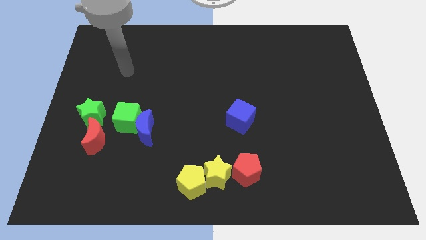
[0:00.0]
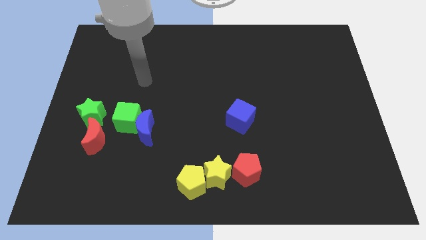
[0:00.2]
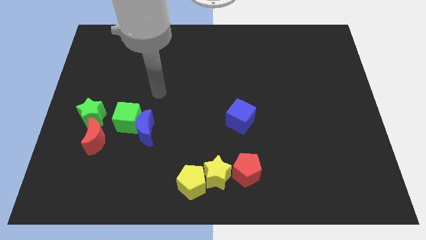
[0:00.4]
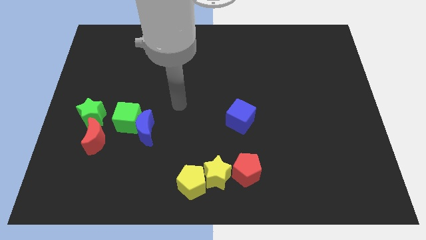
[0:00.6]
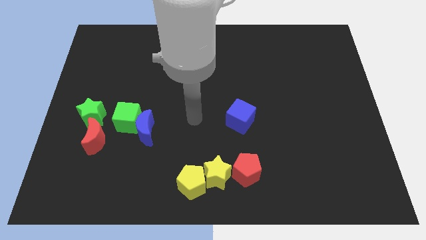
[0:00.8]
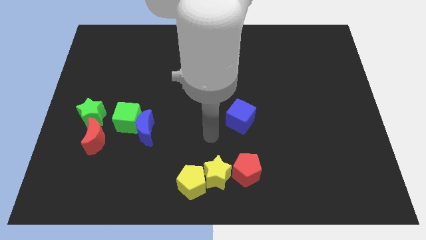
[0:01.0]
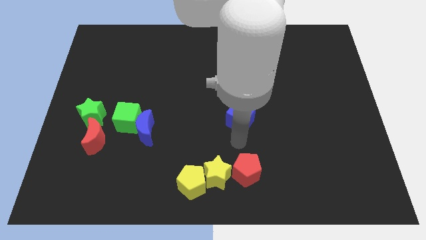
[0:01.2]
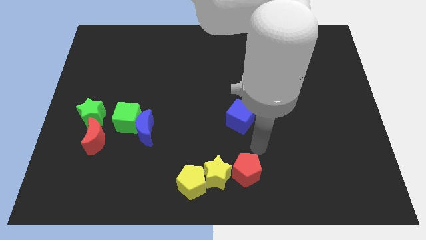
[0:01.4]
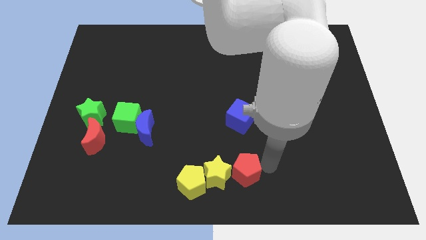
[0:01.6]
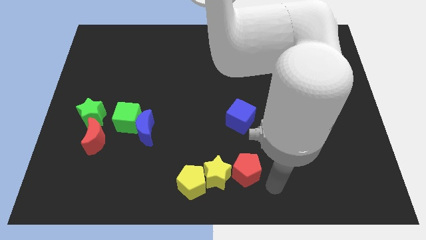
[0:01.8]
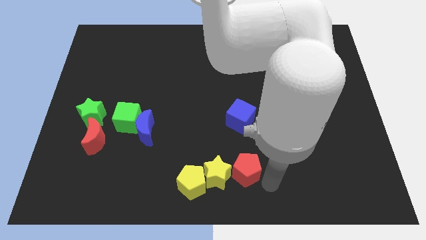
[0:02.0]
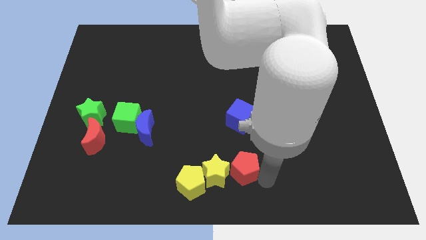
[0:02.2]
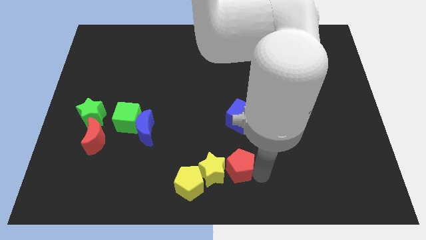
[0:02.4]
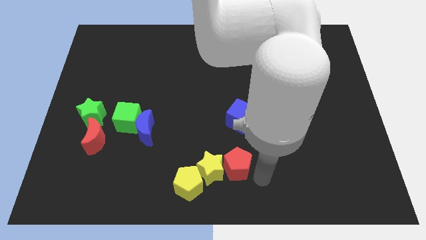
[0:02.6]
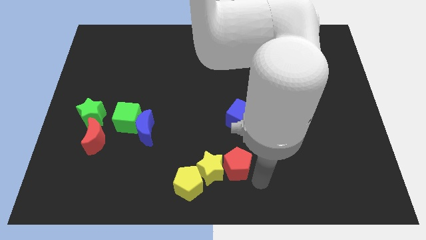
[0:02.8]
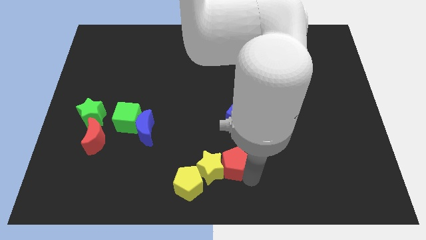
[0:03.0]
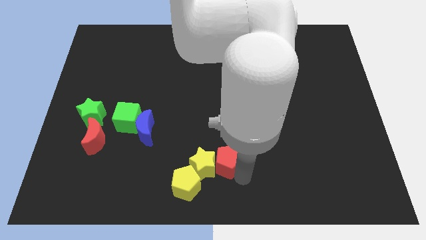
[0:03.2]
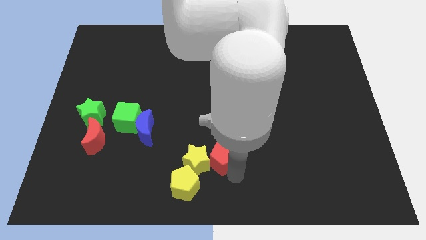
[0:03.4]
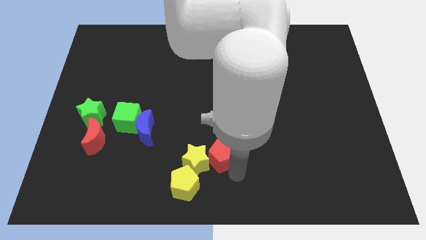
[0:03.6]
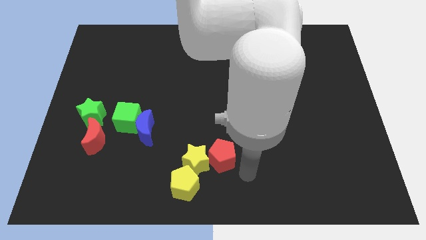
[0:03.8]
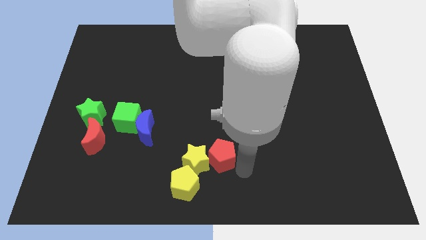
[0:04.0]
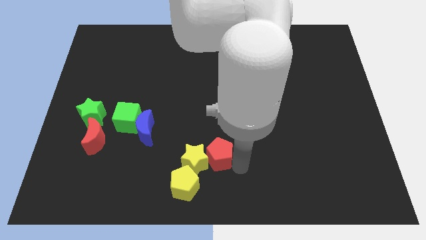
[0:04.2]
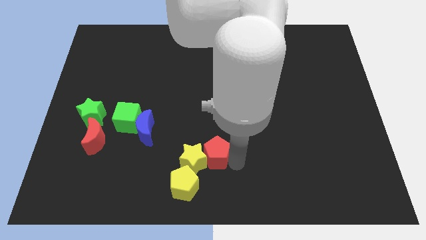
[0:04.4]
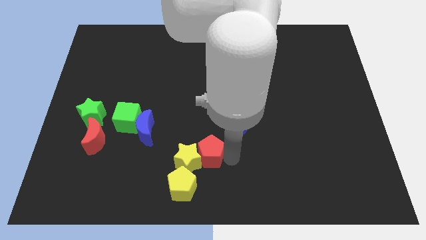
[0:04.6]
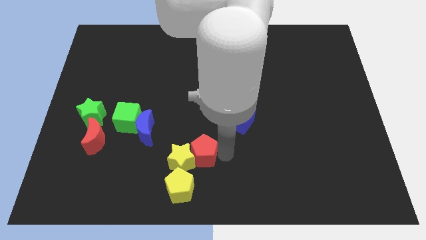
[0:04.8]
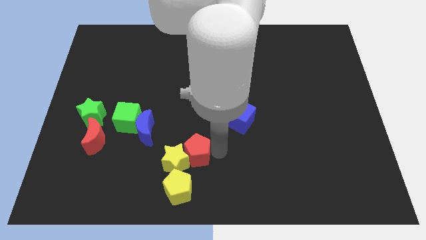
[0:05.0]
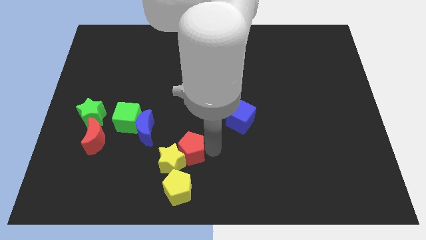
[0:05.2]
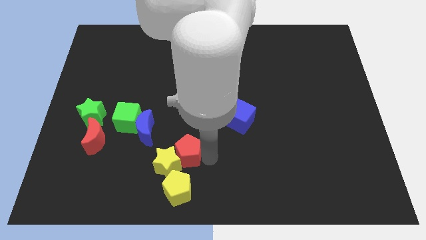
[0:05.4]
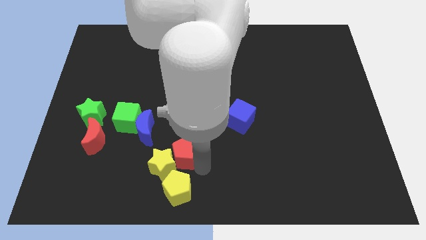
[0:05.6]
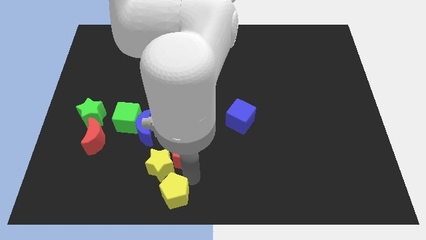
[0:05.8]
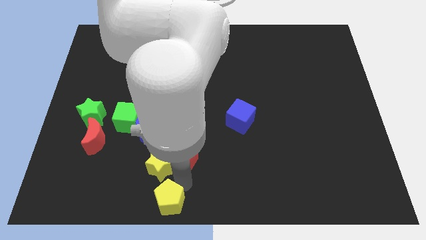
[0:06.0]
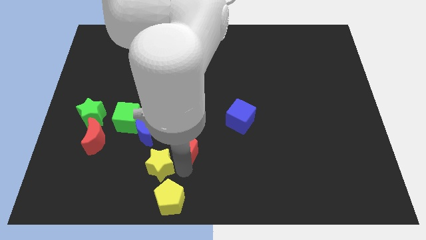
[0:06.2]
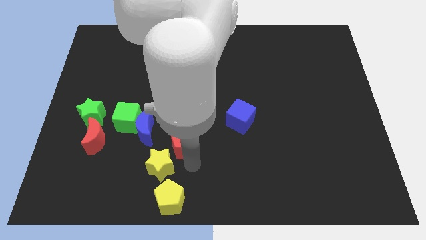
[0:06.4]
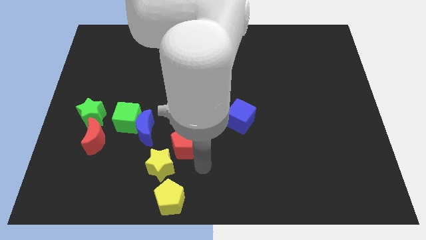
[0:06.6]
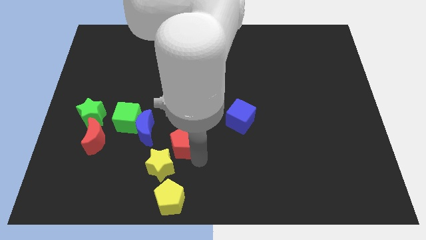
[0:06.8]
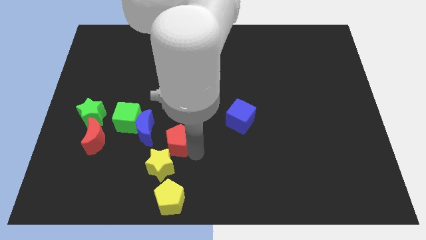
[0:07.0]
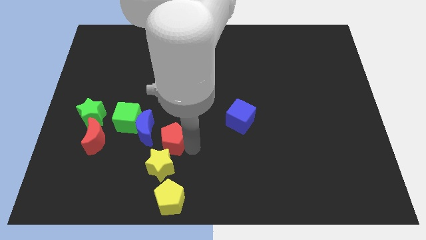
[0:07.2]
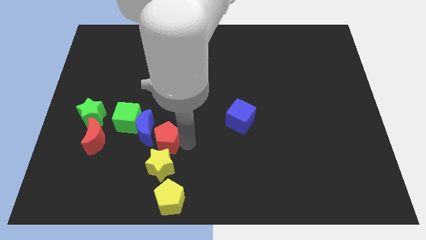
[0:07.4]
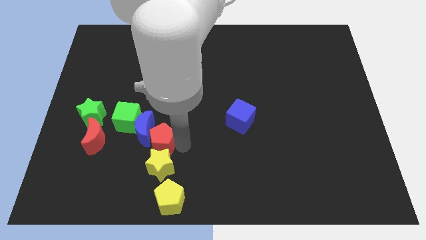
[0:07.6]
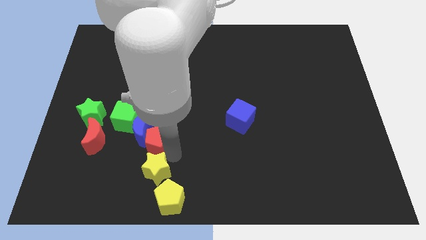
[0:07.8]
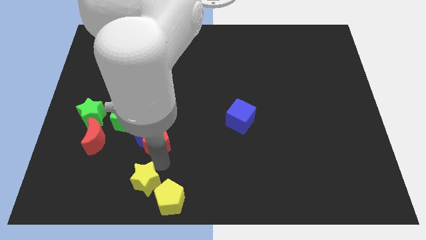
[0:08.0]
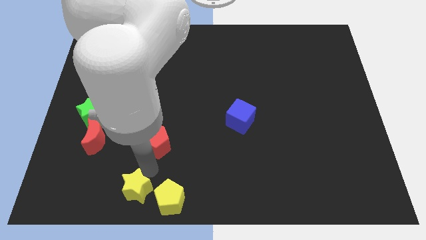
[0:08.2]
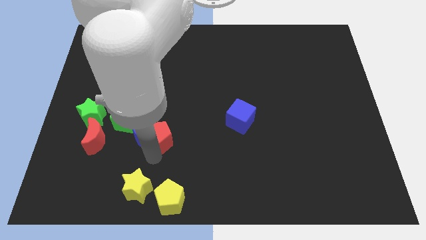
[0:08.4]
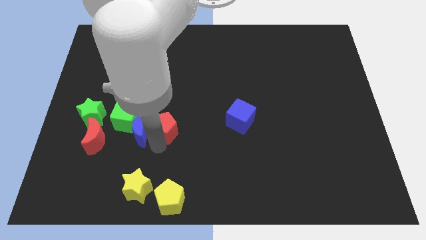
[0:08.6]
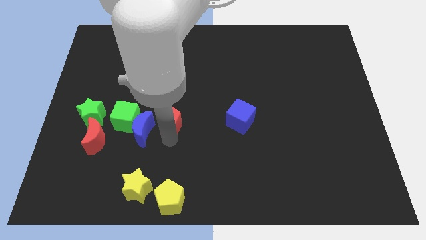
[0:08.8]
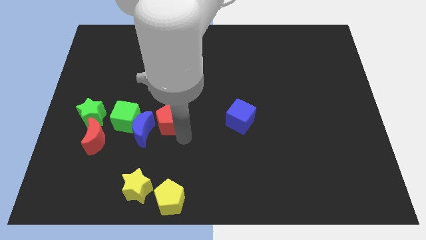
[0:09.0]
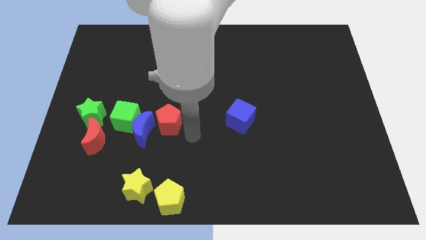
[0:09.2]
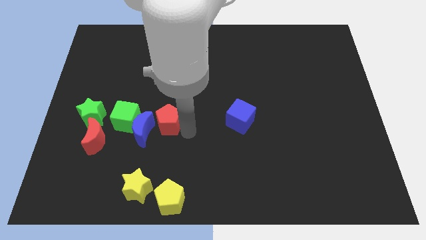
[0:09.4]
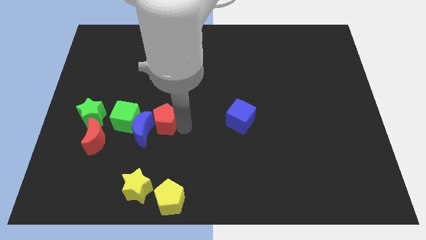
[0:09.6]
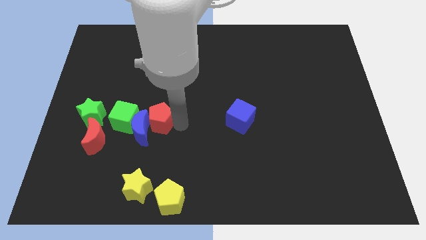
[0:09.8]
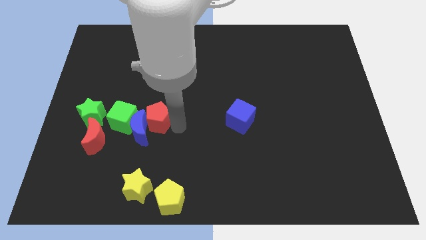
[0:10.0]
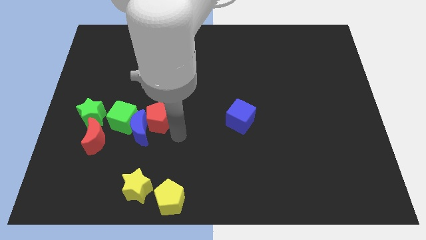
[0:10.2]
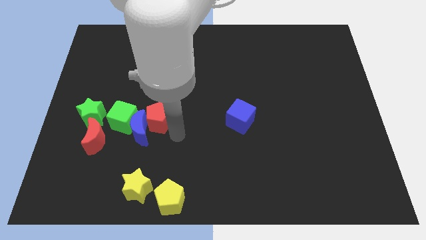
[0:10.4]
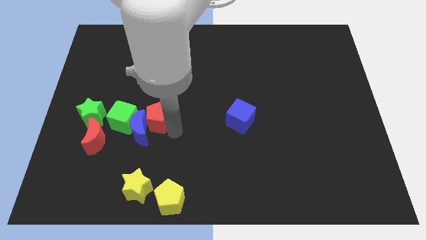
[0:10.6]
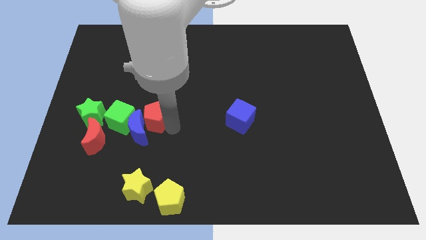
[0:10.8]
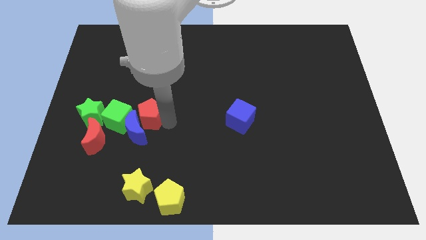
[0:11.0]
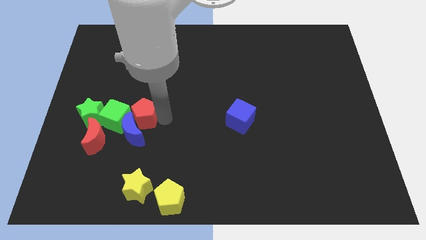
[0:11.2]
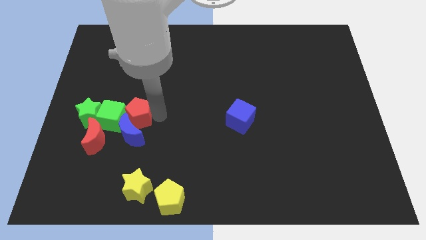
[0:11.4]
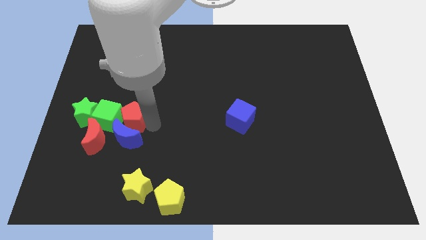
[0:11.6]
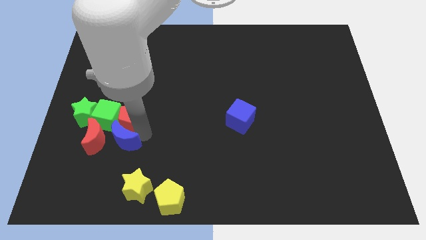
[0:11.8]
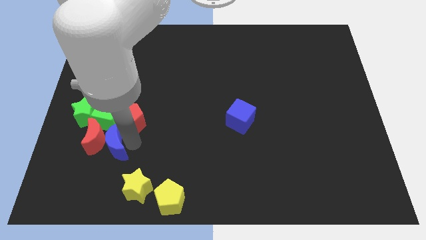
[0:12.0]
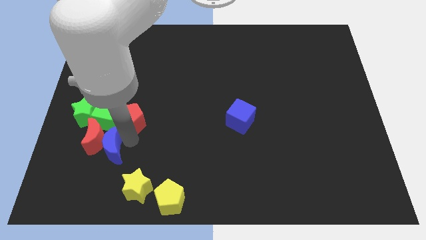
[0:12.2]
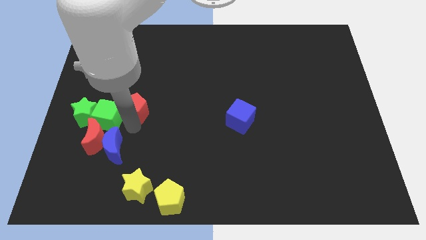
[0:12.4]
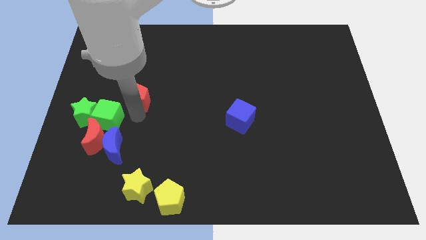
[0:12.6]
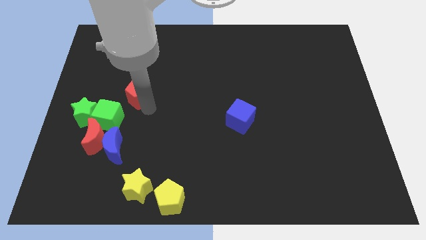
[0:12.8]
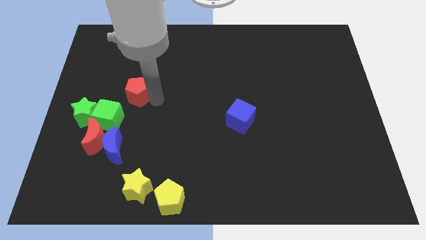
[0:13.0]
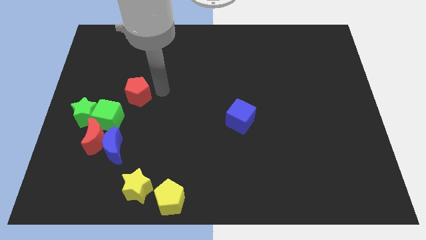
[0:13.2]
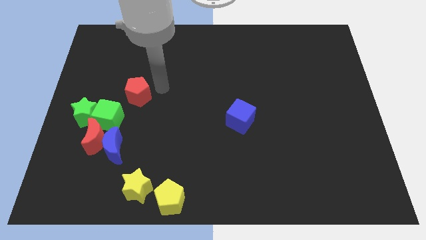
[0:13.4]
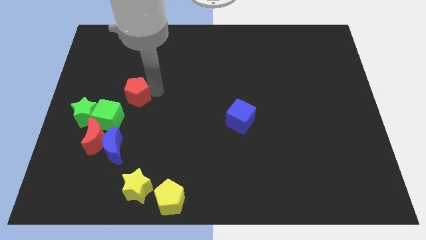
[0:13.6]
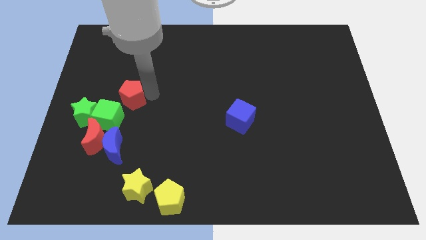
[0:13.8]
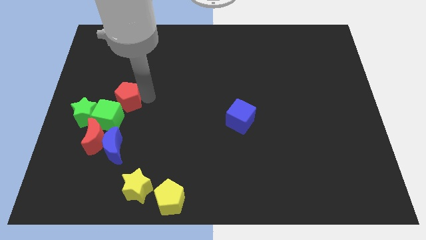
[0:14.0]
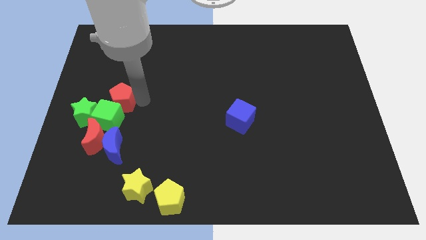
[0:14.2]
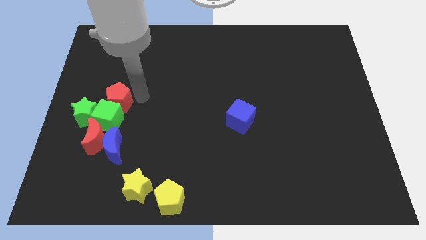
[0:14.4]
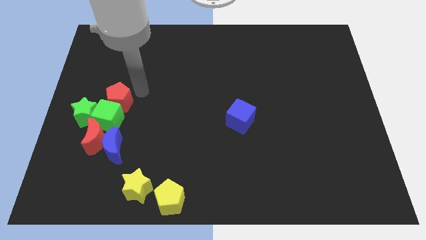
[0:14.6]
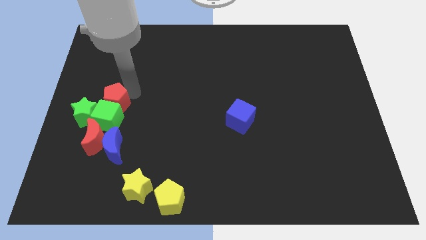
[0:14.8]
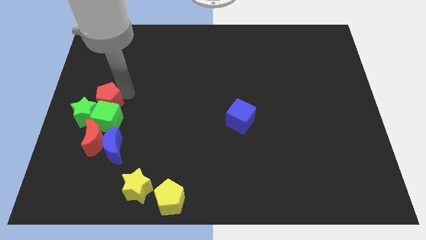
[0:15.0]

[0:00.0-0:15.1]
put the red pentagon next to the green star
